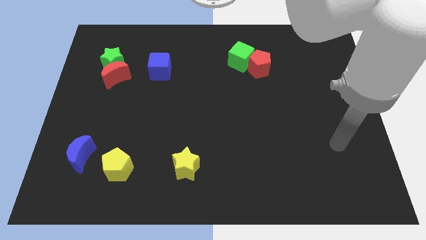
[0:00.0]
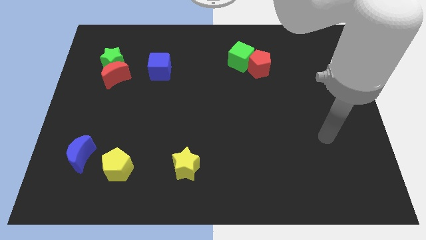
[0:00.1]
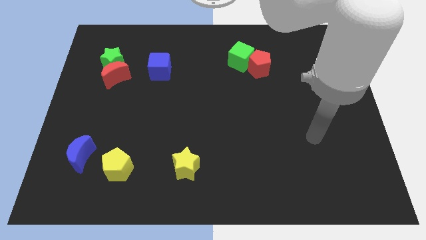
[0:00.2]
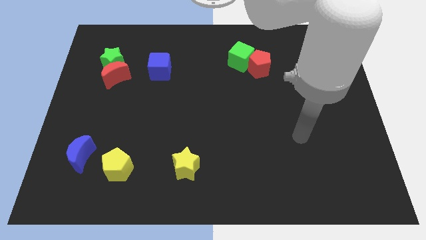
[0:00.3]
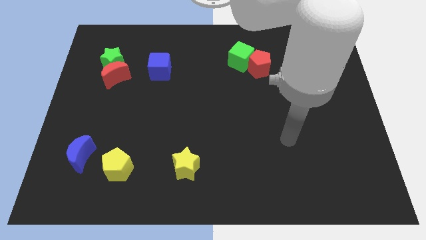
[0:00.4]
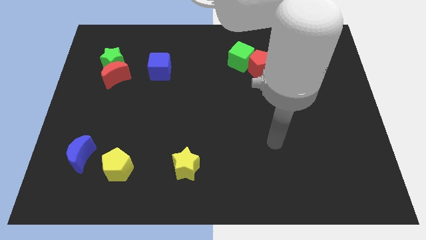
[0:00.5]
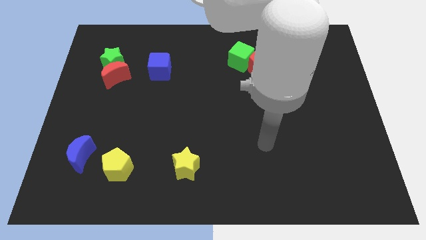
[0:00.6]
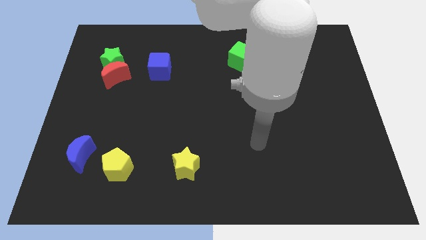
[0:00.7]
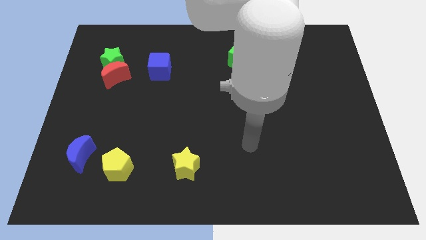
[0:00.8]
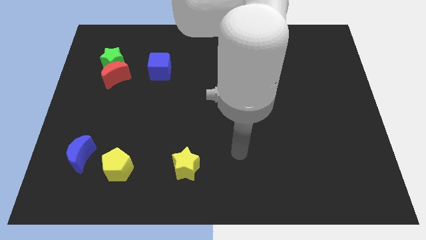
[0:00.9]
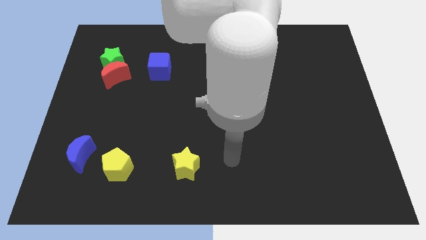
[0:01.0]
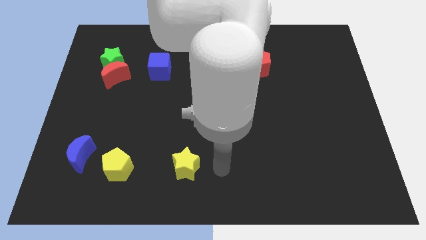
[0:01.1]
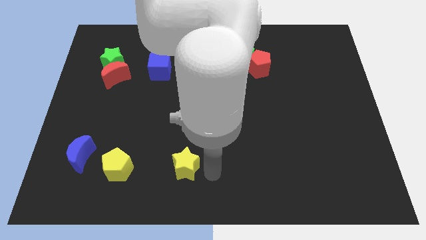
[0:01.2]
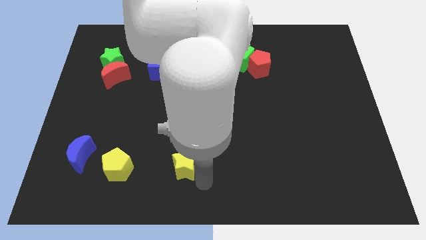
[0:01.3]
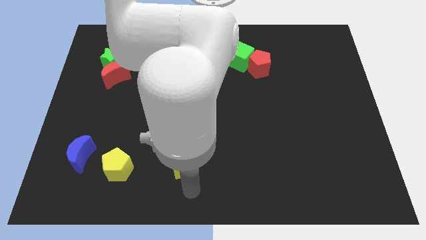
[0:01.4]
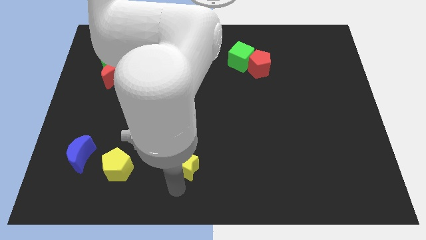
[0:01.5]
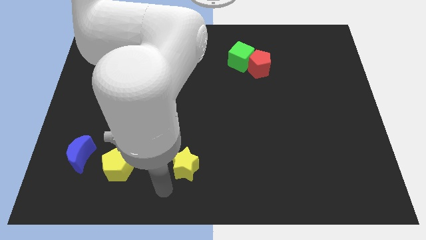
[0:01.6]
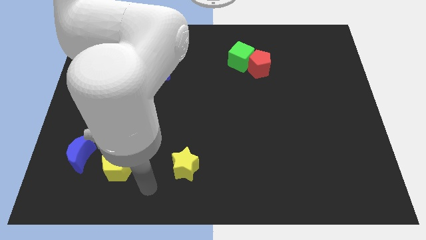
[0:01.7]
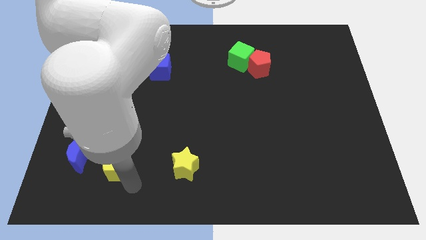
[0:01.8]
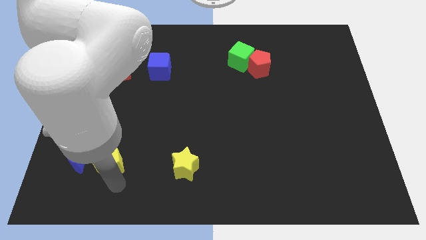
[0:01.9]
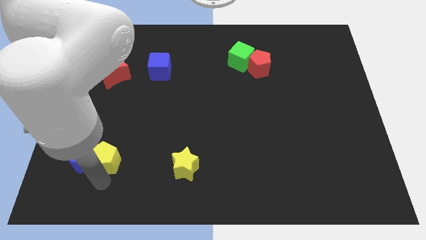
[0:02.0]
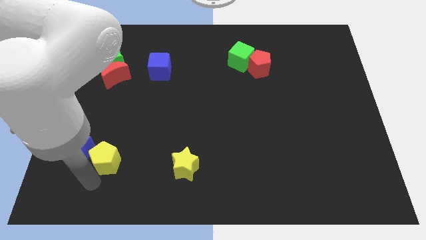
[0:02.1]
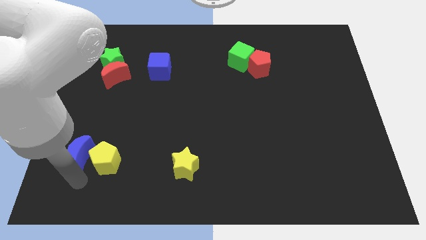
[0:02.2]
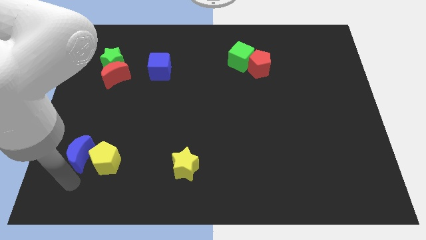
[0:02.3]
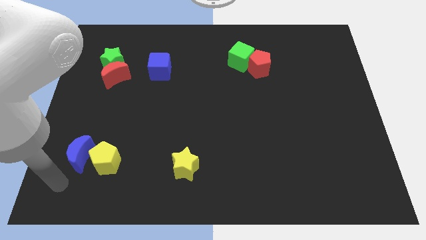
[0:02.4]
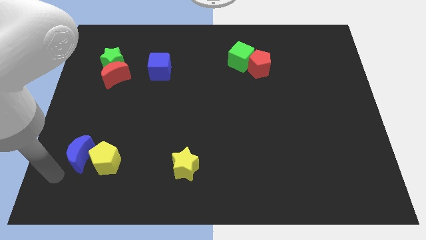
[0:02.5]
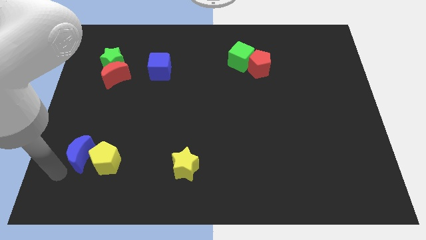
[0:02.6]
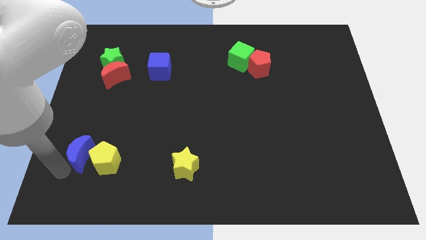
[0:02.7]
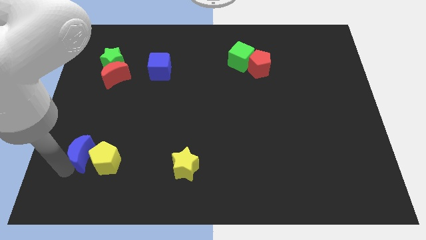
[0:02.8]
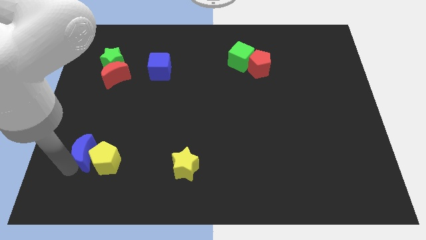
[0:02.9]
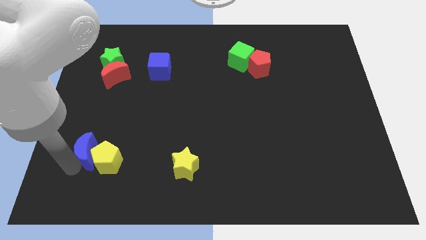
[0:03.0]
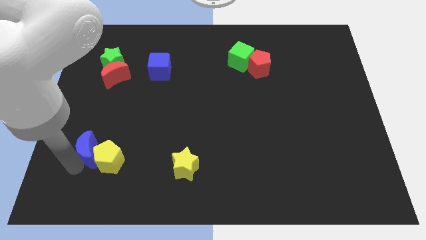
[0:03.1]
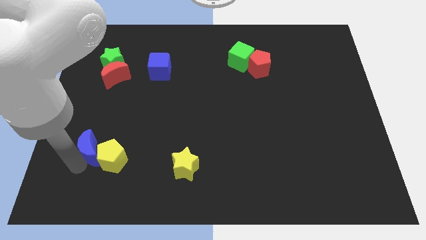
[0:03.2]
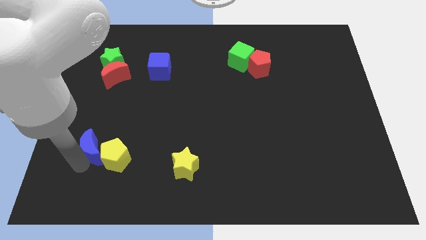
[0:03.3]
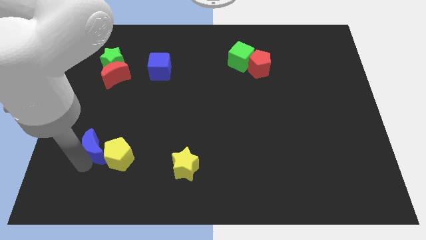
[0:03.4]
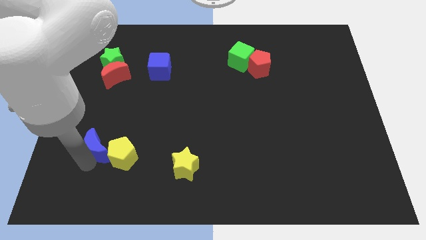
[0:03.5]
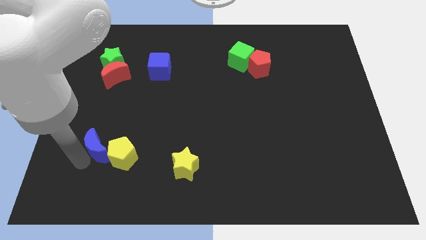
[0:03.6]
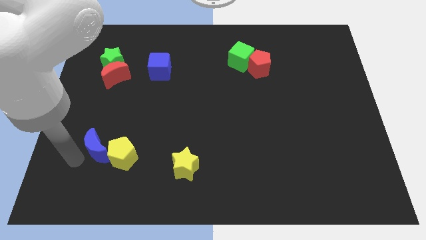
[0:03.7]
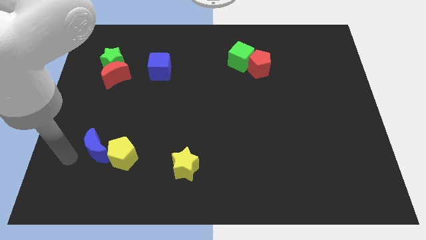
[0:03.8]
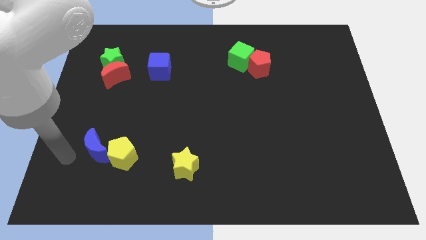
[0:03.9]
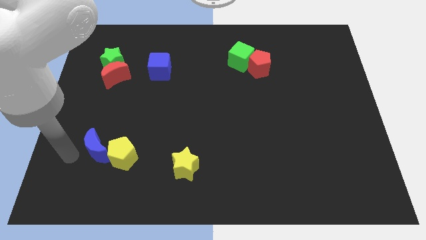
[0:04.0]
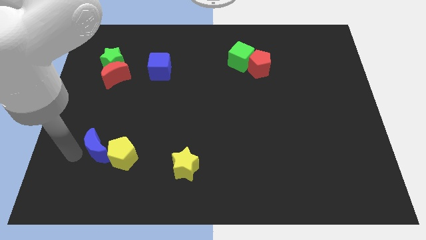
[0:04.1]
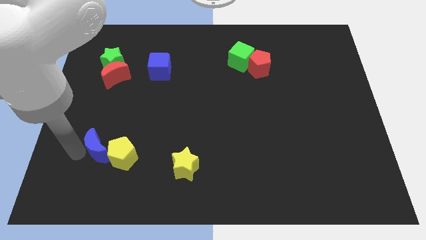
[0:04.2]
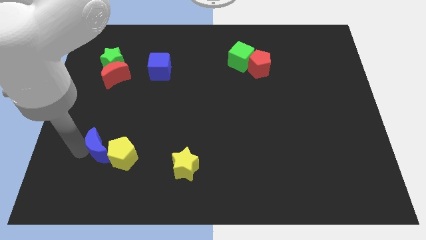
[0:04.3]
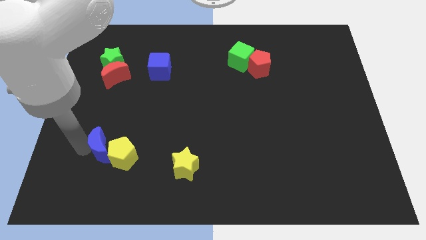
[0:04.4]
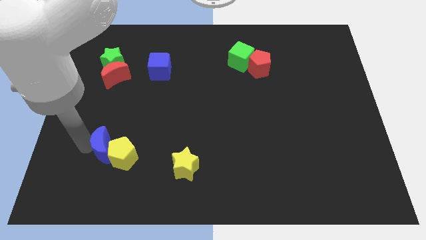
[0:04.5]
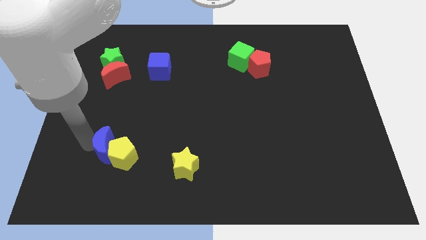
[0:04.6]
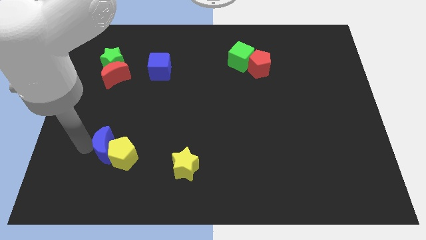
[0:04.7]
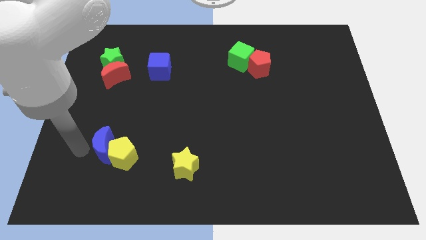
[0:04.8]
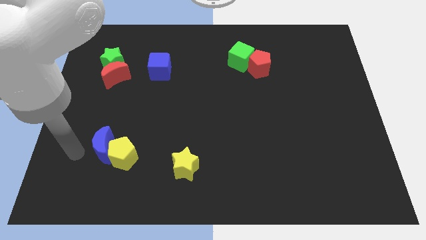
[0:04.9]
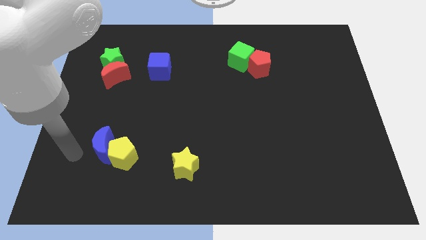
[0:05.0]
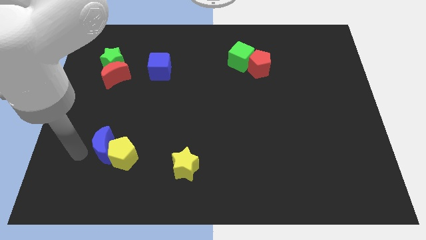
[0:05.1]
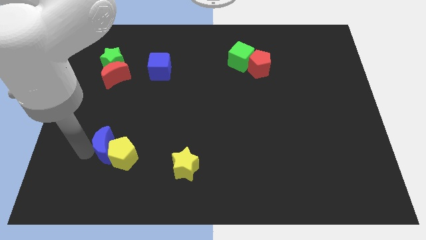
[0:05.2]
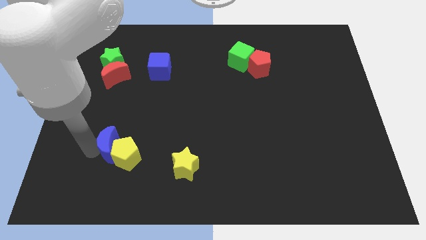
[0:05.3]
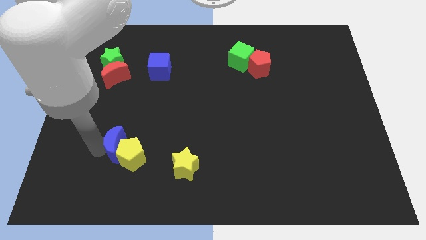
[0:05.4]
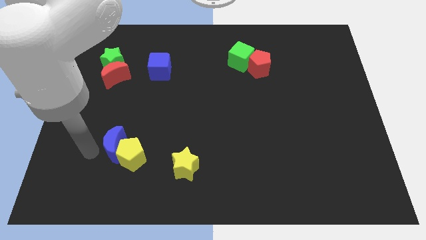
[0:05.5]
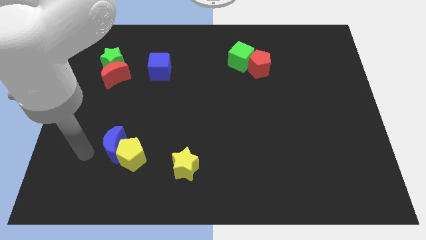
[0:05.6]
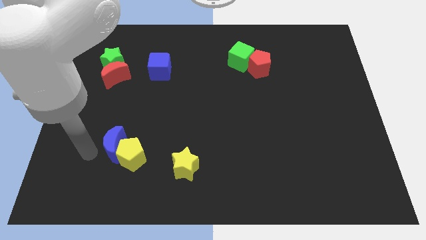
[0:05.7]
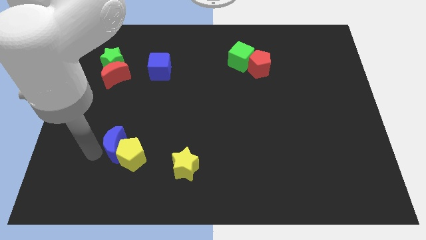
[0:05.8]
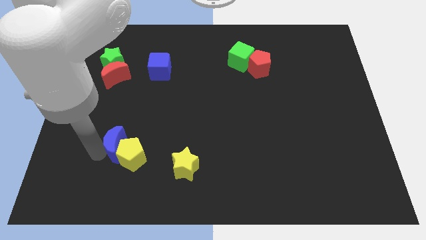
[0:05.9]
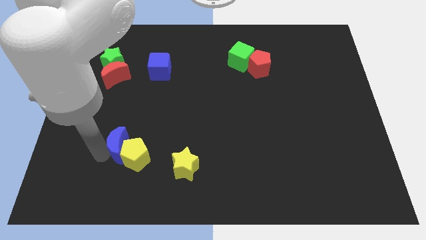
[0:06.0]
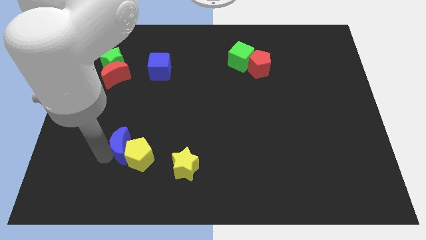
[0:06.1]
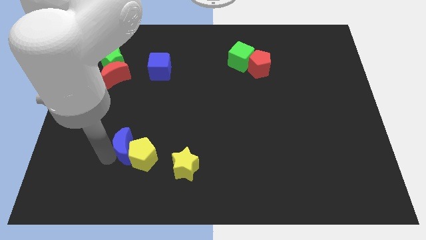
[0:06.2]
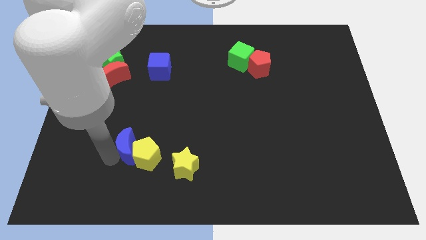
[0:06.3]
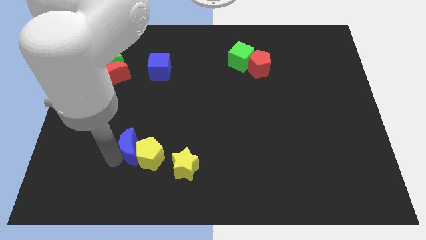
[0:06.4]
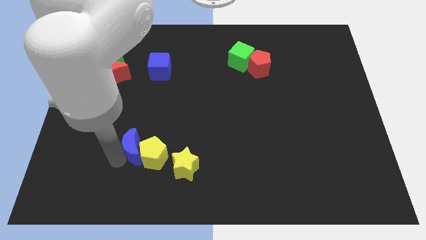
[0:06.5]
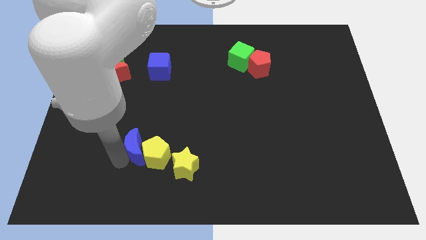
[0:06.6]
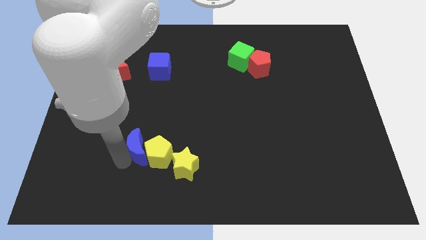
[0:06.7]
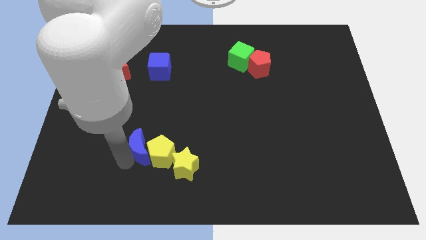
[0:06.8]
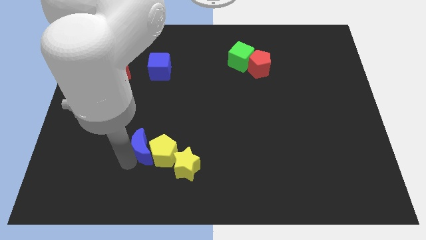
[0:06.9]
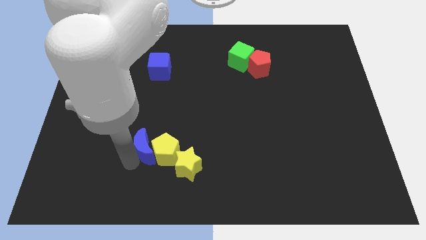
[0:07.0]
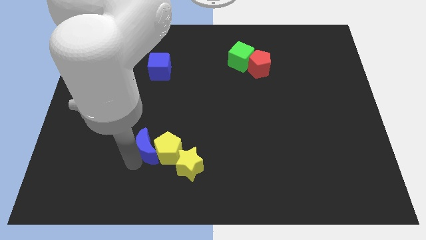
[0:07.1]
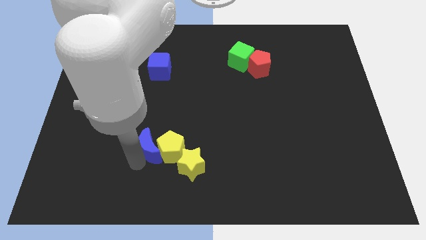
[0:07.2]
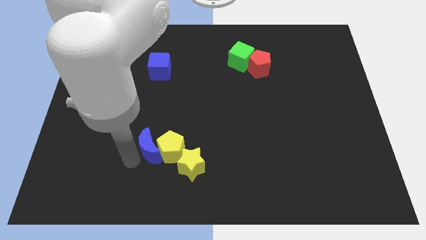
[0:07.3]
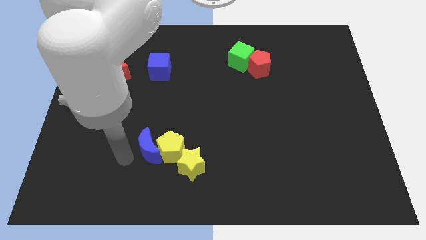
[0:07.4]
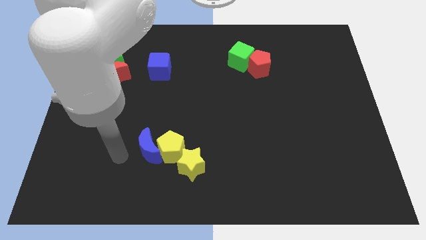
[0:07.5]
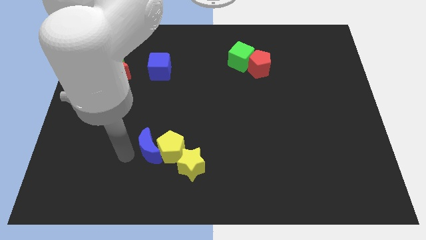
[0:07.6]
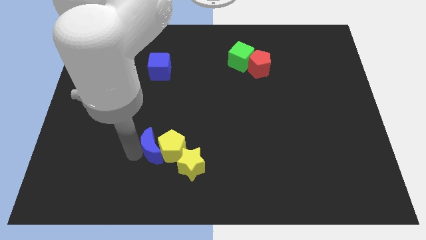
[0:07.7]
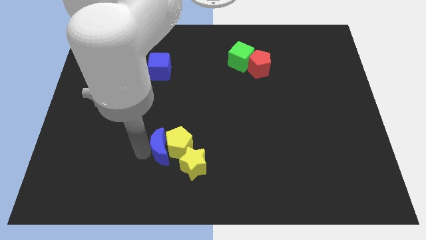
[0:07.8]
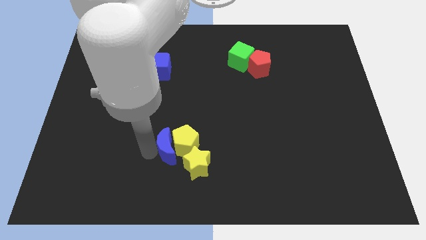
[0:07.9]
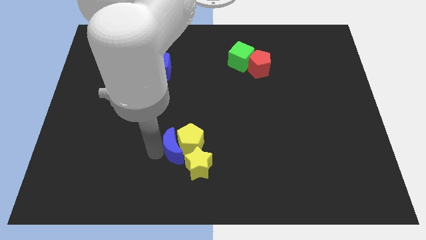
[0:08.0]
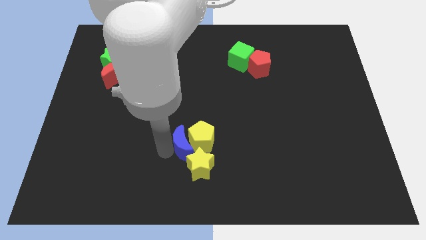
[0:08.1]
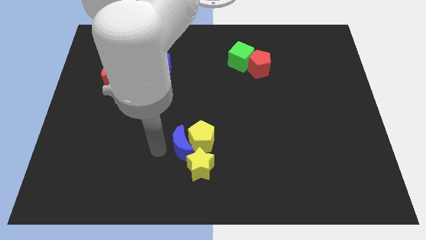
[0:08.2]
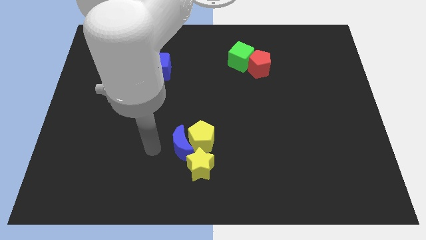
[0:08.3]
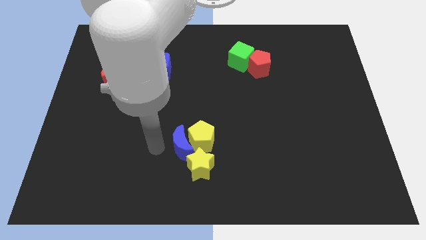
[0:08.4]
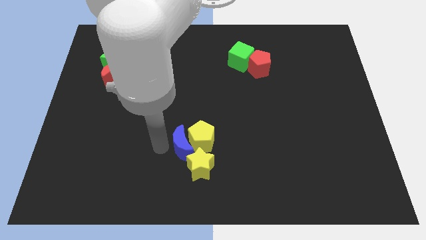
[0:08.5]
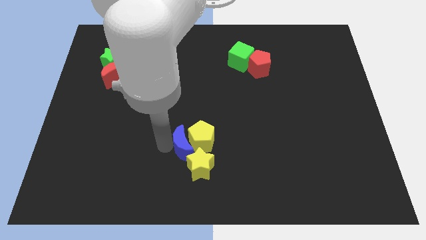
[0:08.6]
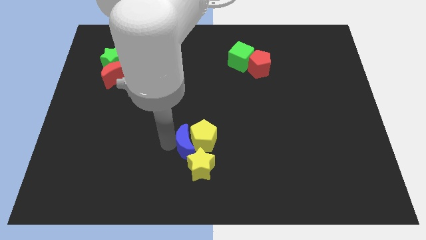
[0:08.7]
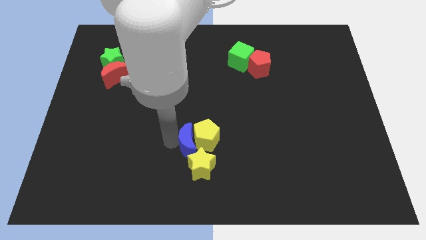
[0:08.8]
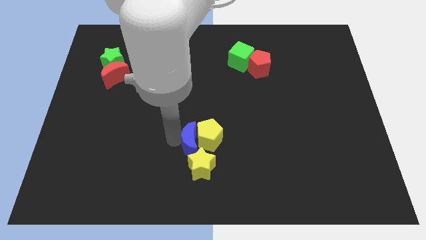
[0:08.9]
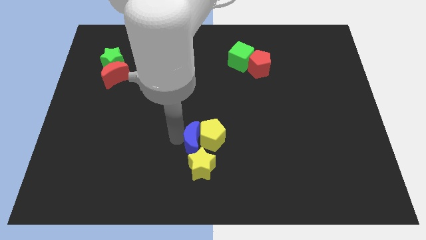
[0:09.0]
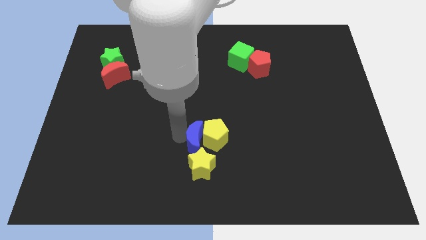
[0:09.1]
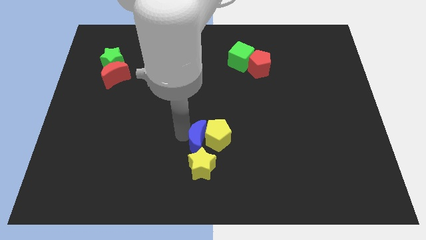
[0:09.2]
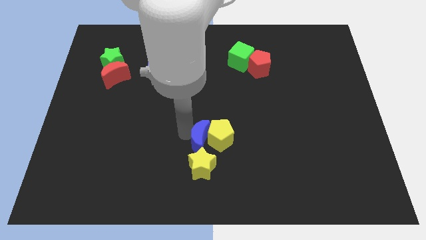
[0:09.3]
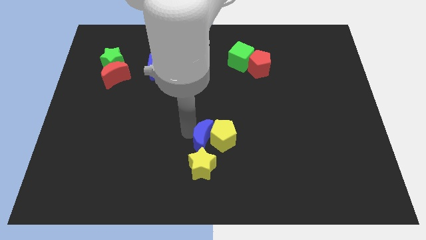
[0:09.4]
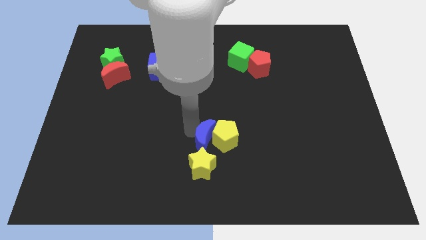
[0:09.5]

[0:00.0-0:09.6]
push the blue moon to the top right side of the yellow star
